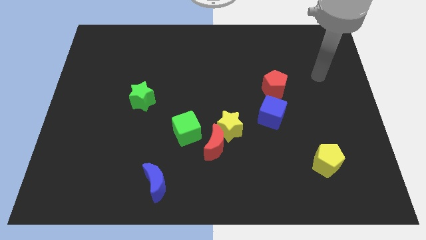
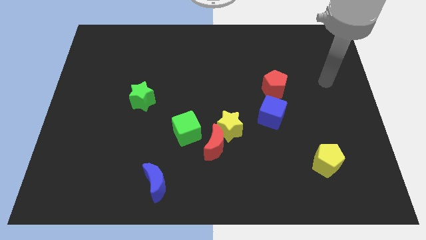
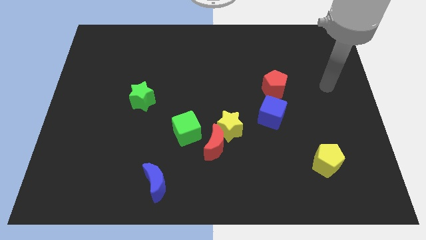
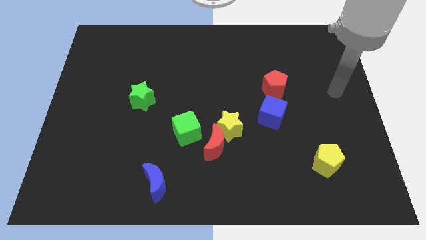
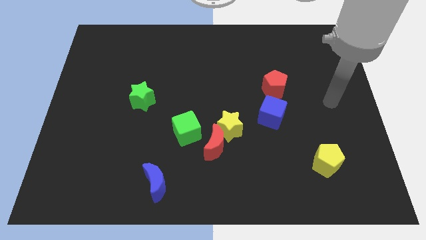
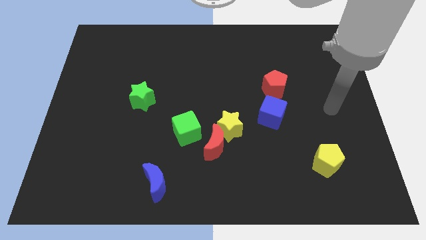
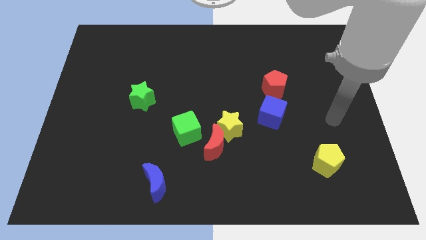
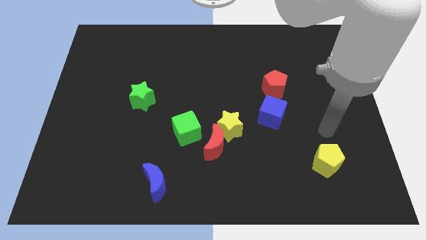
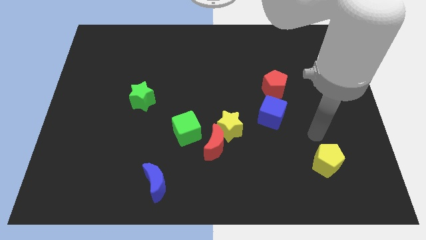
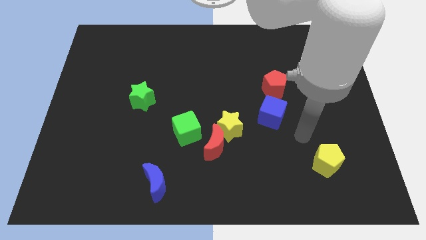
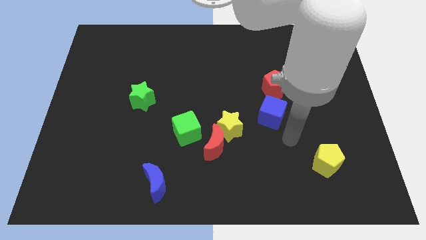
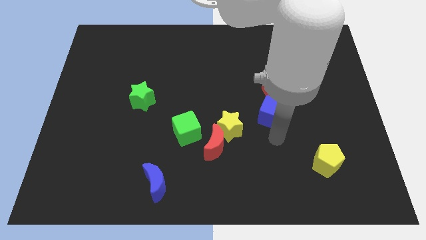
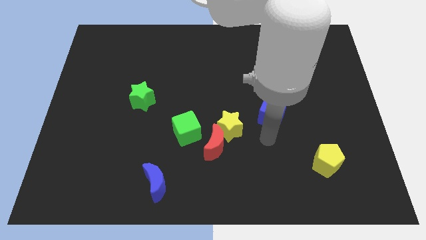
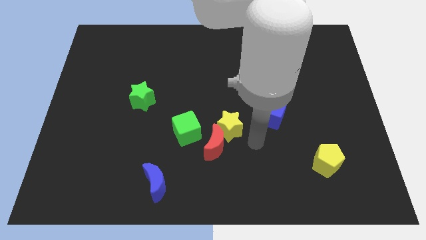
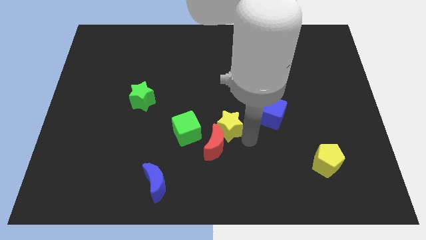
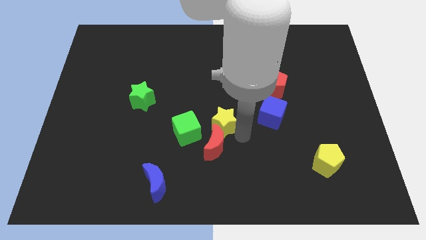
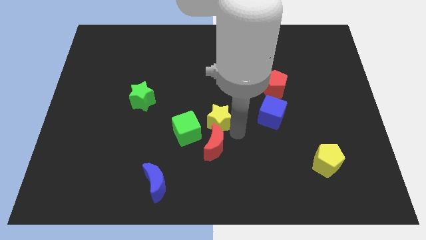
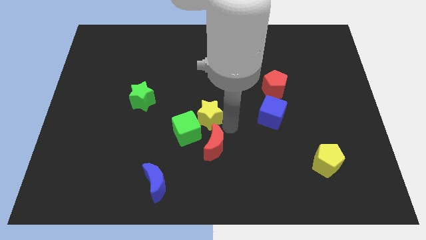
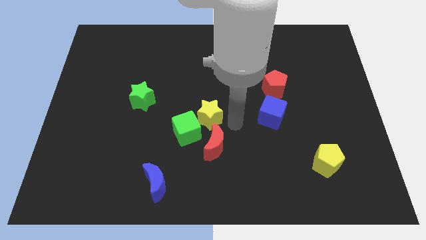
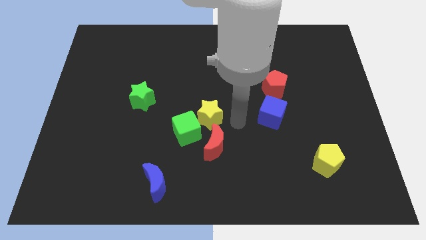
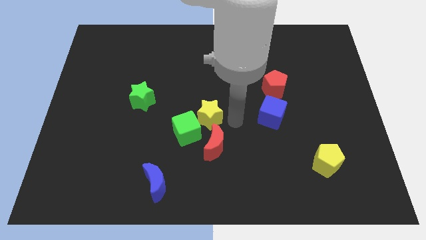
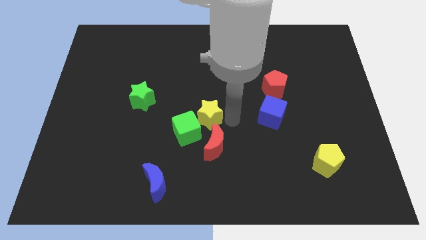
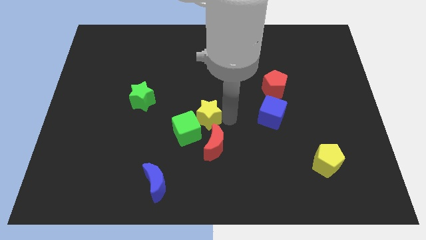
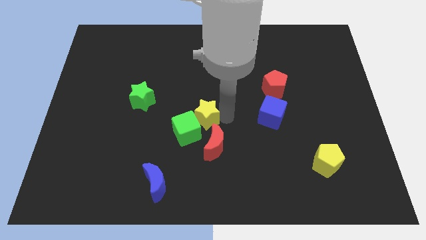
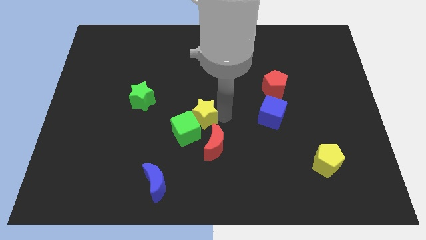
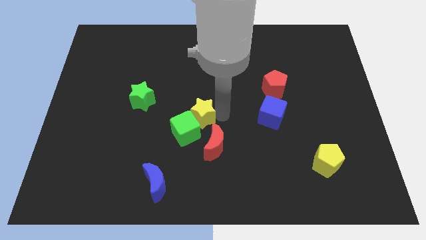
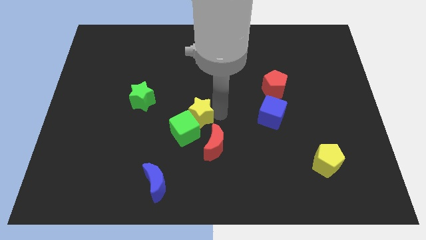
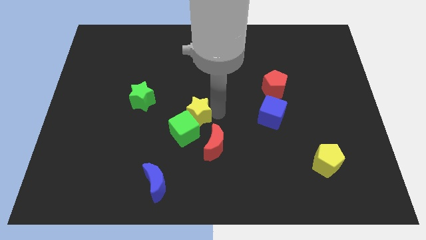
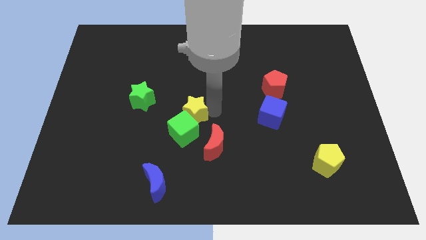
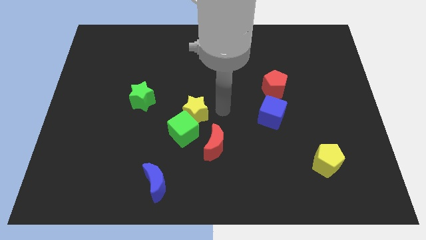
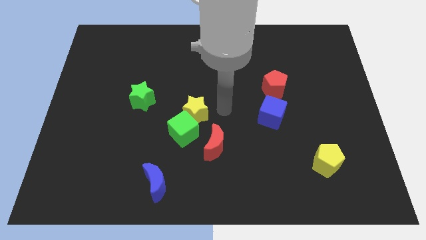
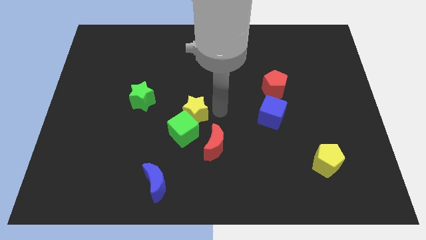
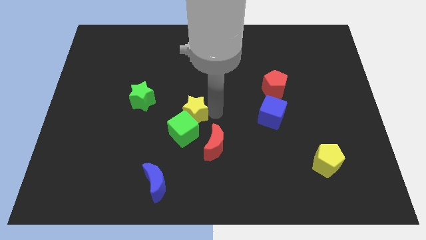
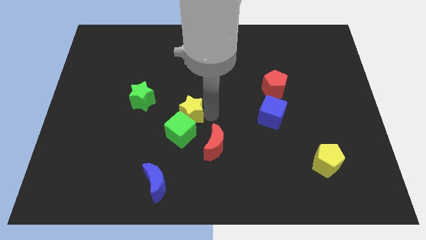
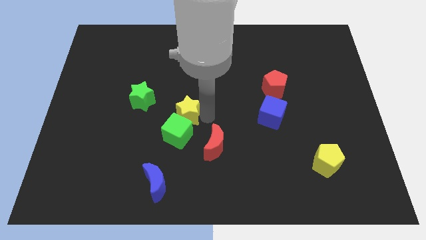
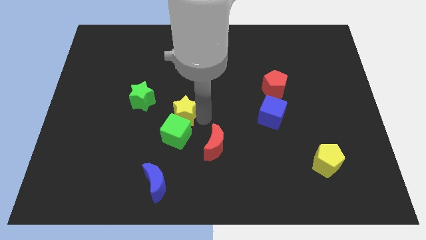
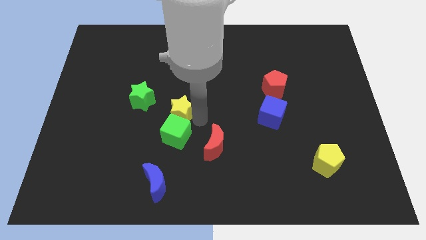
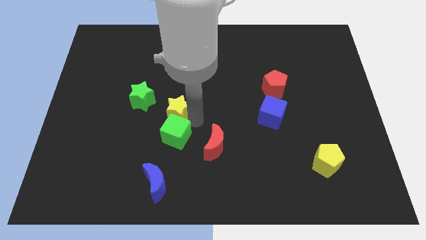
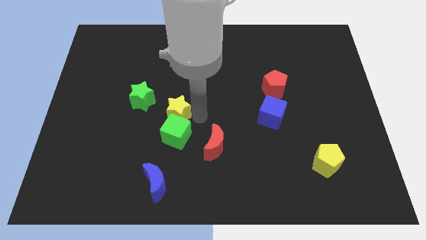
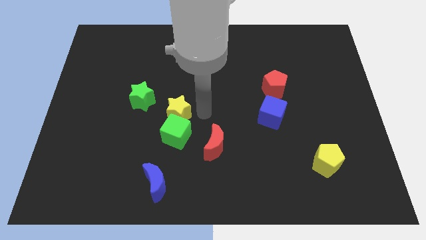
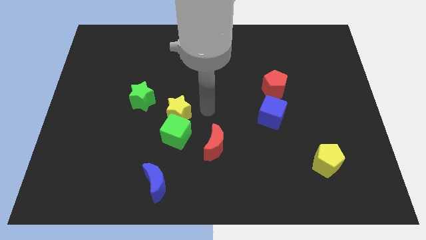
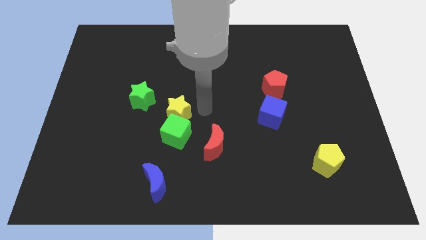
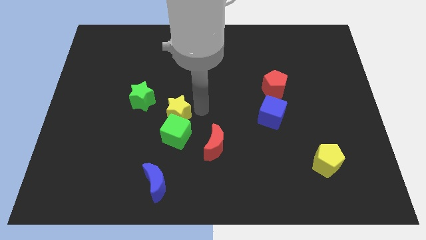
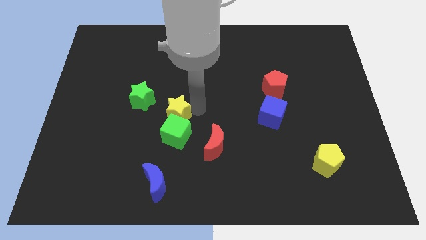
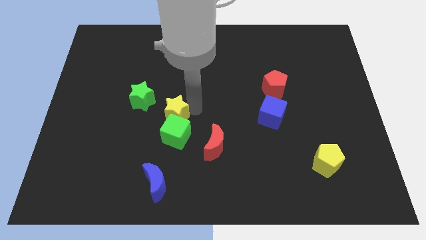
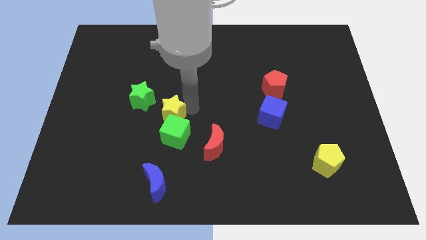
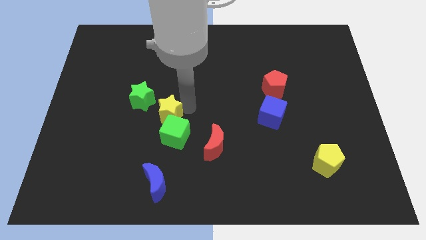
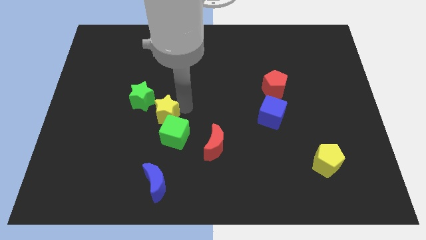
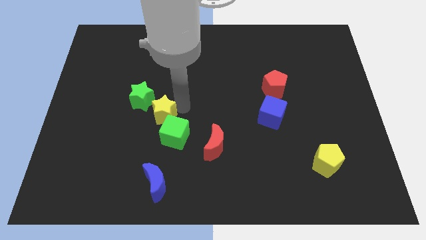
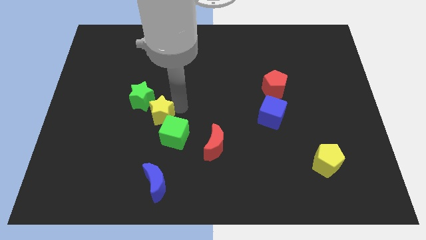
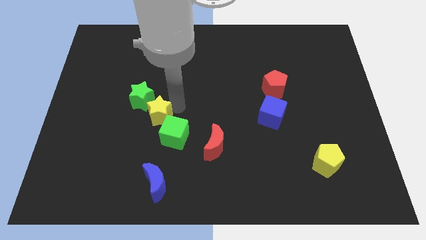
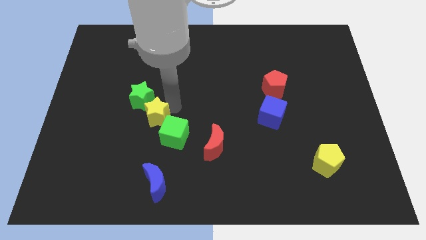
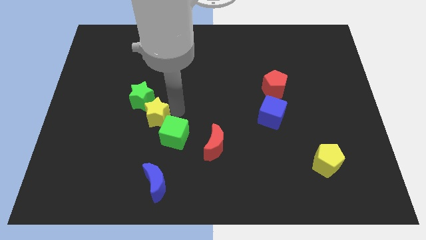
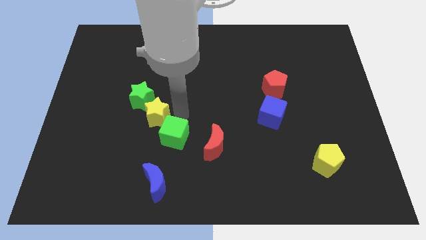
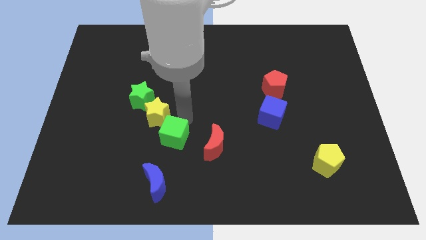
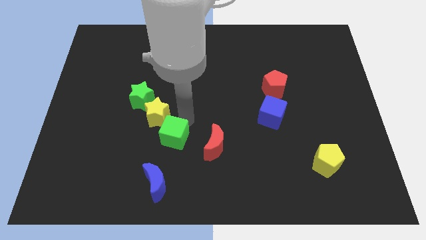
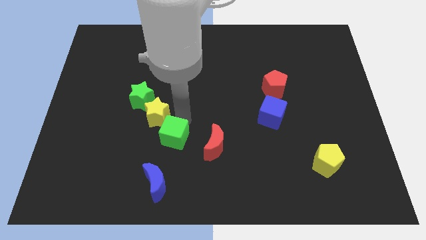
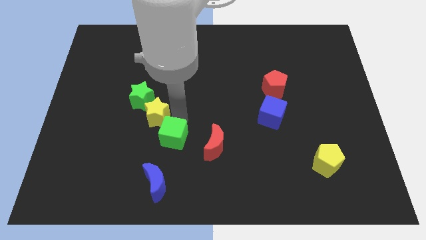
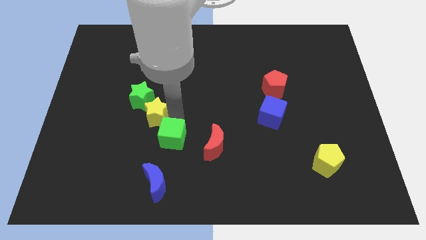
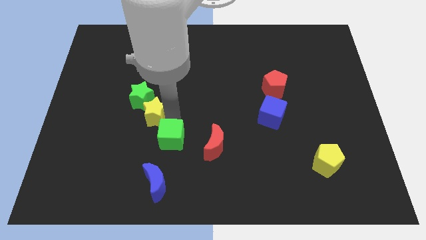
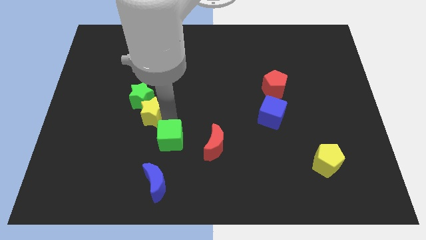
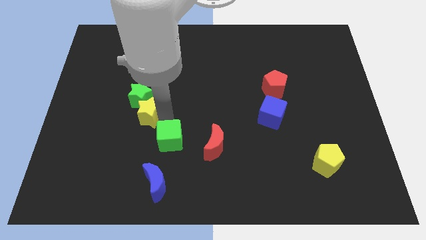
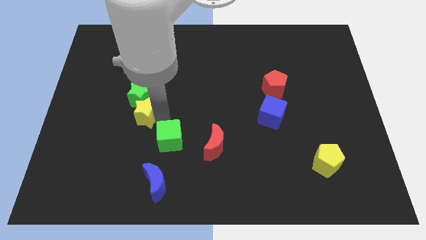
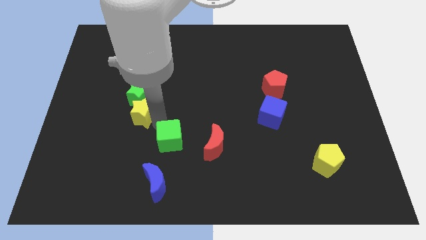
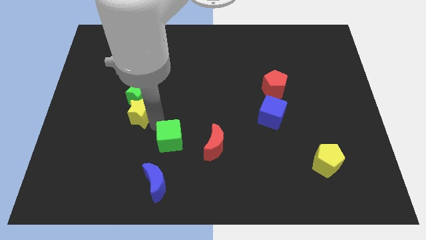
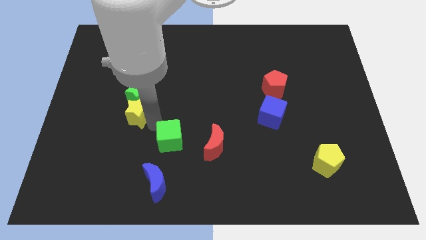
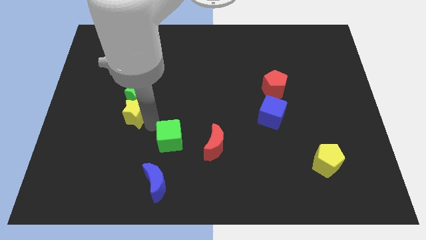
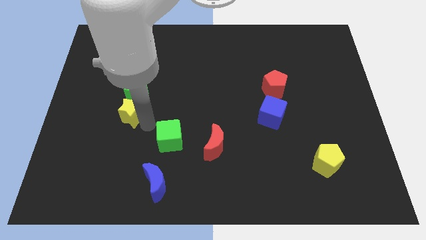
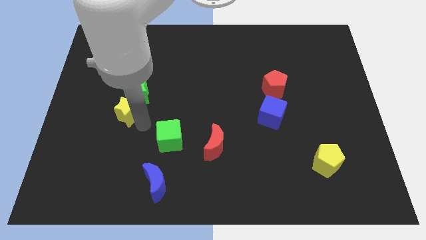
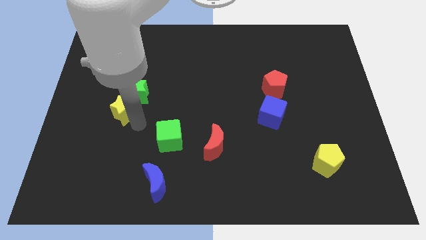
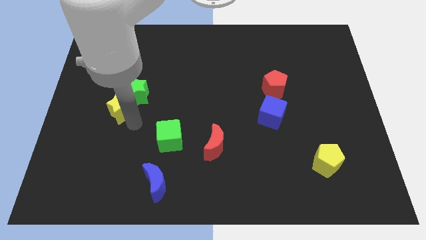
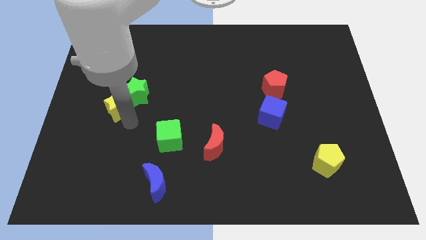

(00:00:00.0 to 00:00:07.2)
slide the yellow star to the left side of the green star

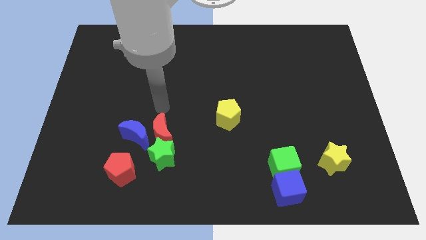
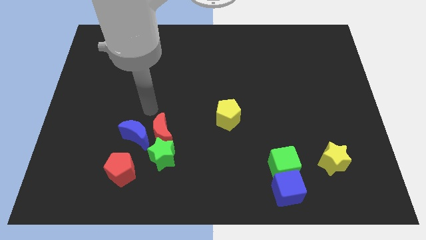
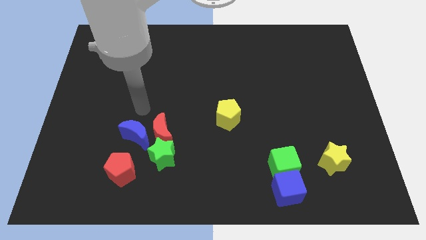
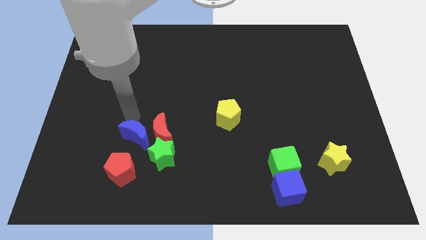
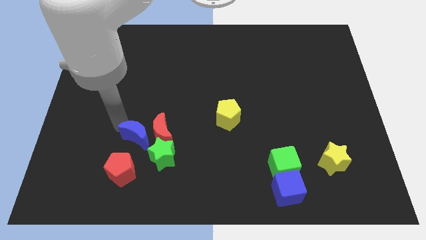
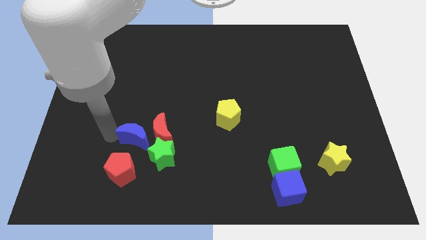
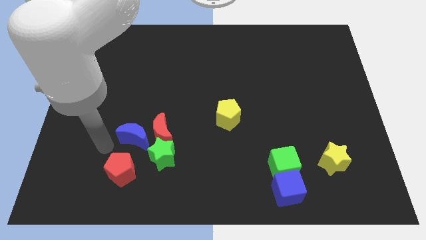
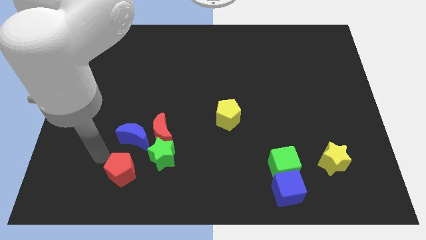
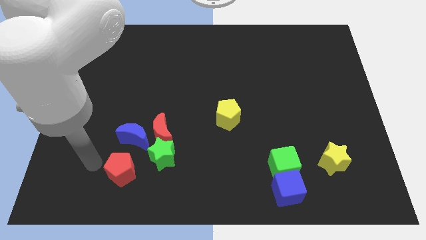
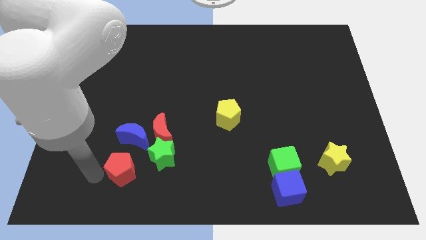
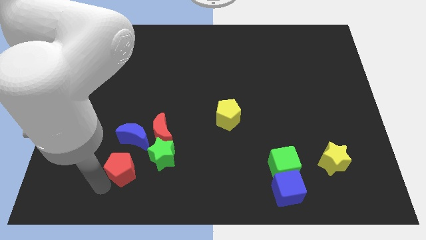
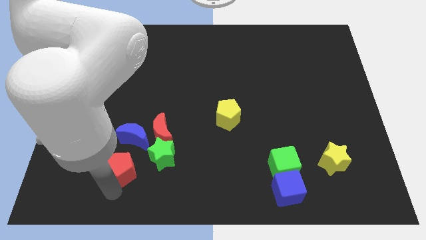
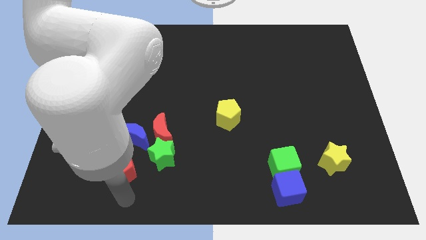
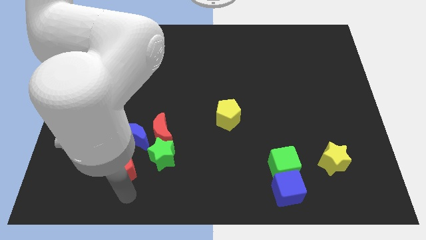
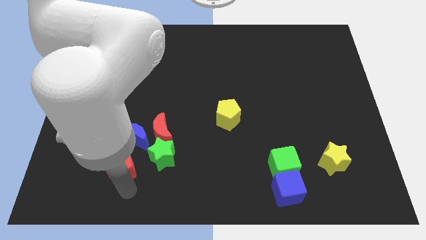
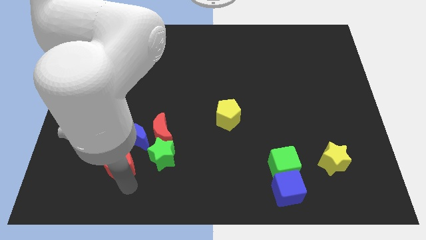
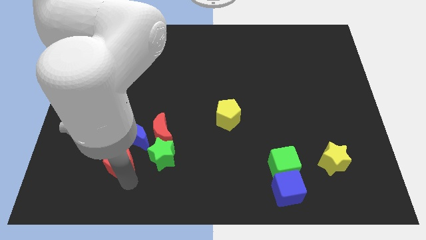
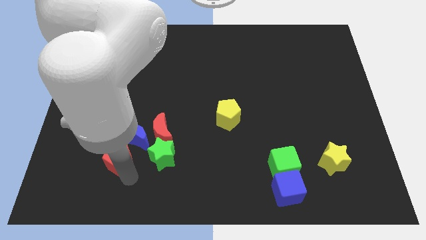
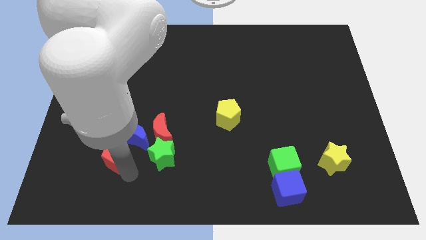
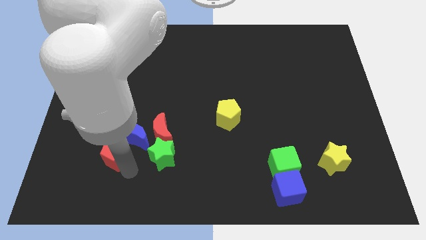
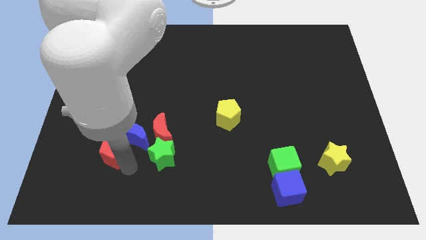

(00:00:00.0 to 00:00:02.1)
push the red pentagon left of the red moon
